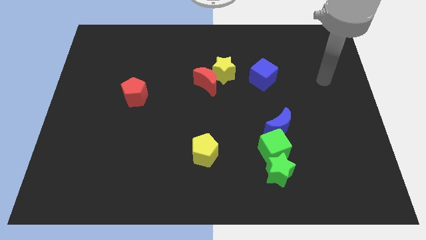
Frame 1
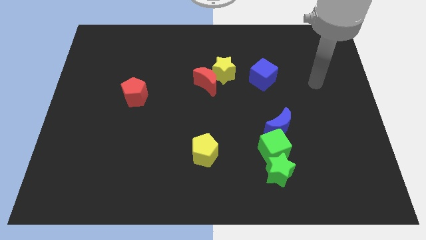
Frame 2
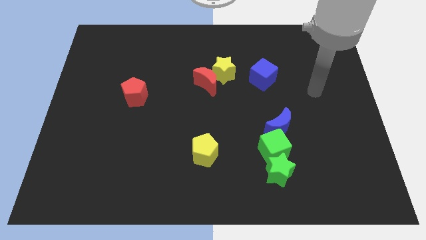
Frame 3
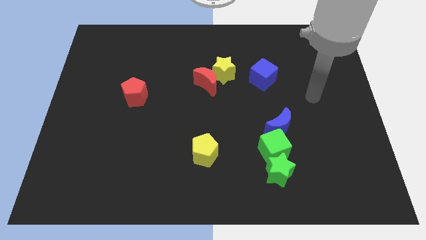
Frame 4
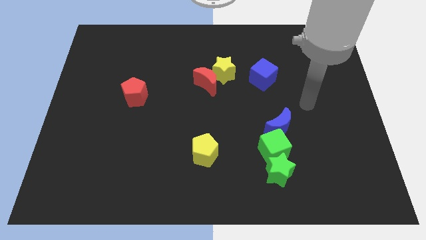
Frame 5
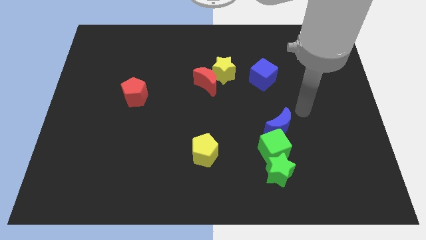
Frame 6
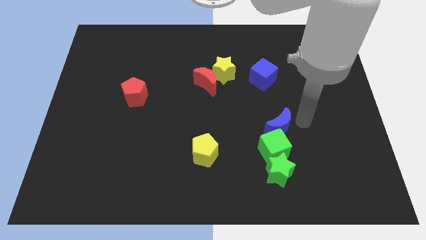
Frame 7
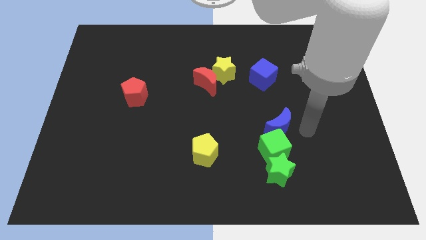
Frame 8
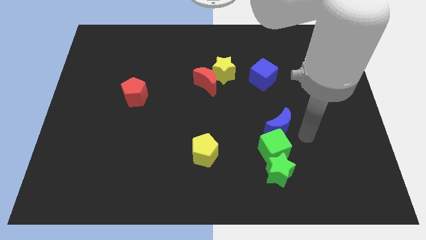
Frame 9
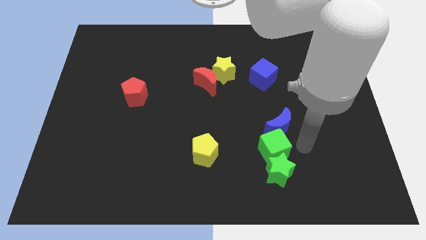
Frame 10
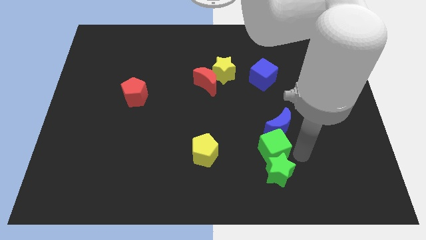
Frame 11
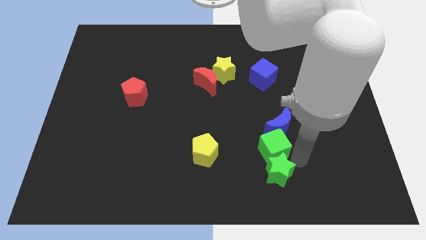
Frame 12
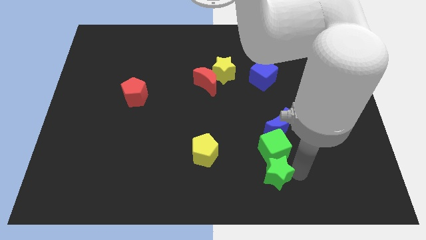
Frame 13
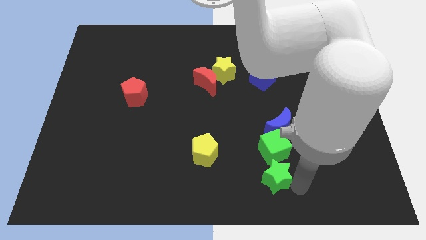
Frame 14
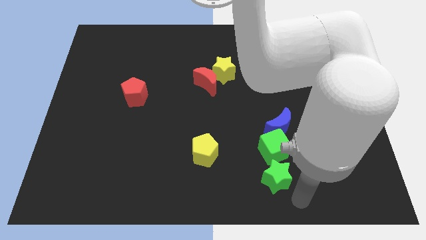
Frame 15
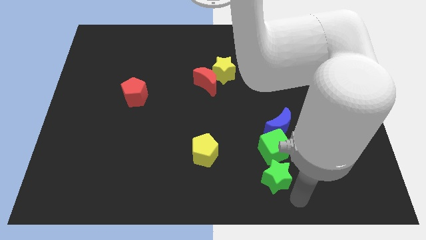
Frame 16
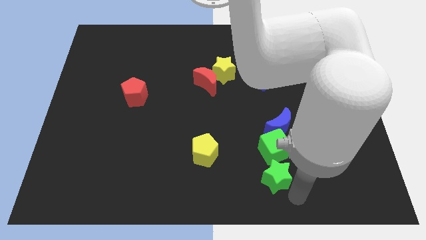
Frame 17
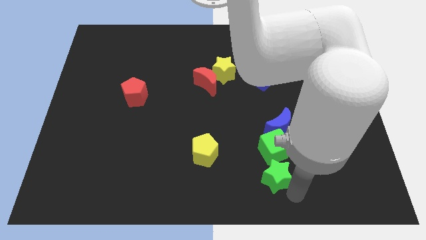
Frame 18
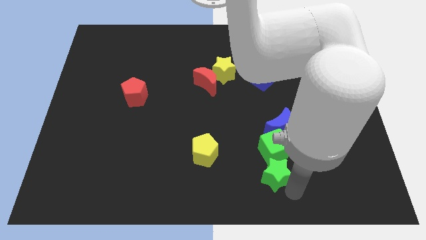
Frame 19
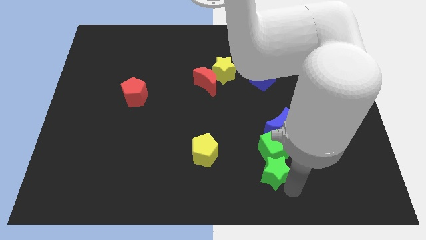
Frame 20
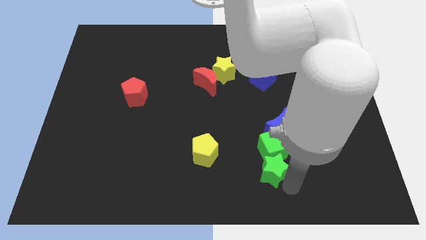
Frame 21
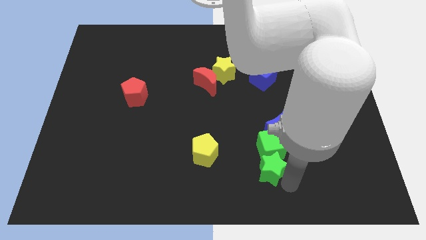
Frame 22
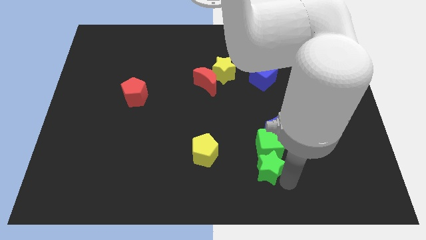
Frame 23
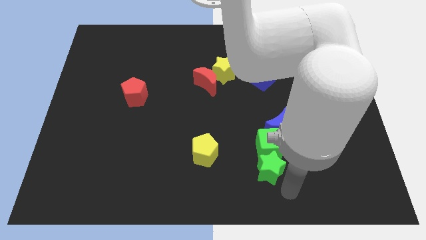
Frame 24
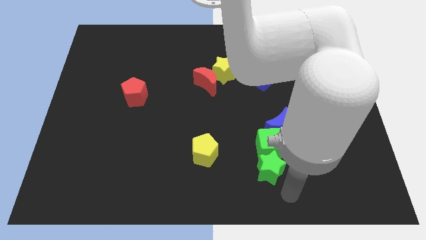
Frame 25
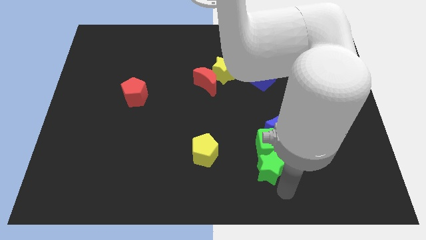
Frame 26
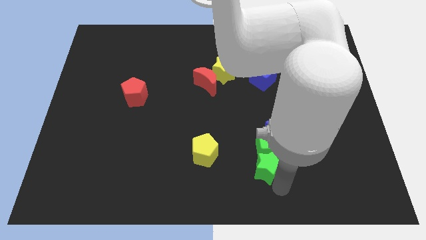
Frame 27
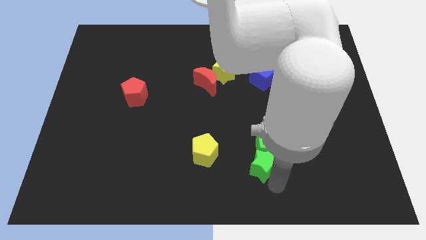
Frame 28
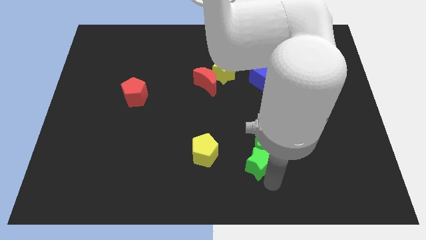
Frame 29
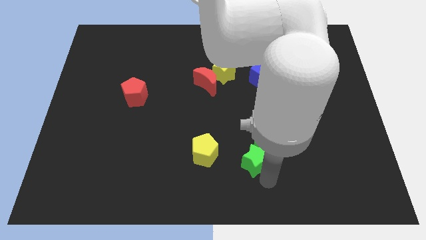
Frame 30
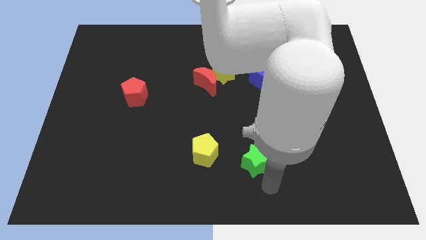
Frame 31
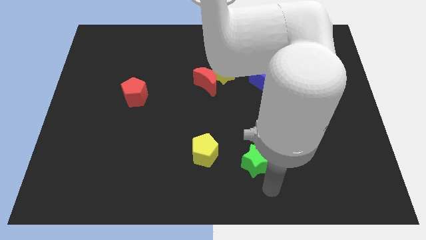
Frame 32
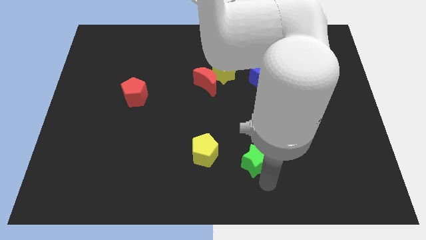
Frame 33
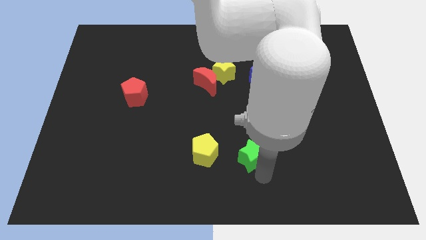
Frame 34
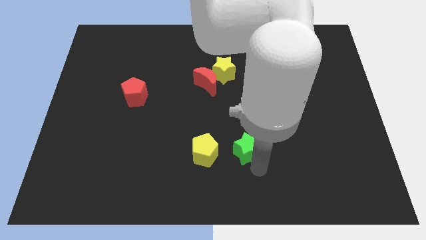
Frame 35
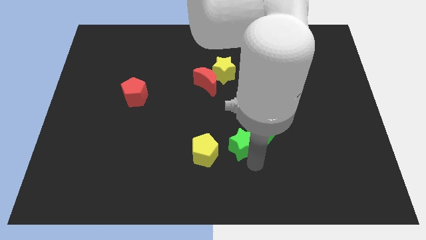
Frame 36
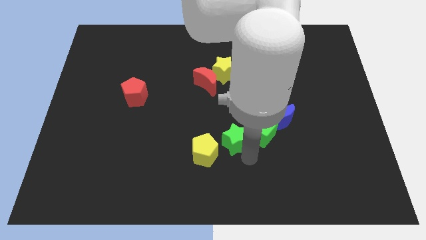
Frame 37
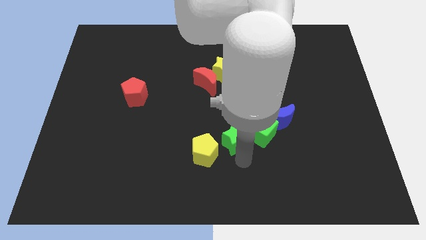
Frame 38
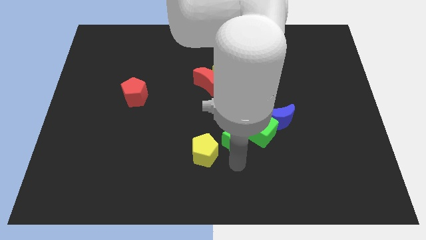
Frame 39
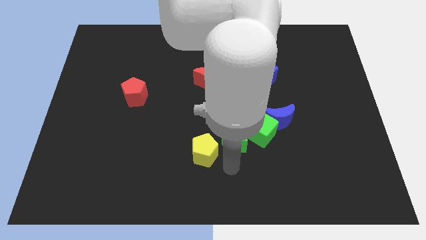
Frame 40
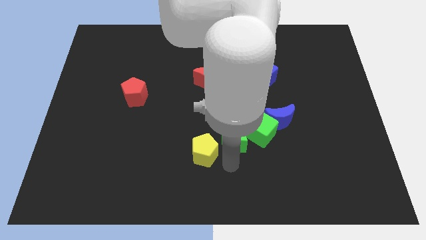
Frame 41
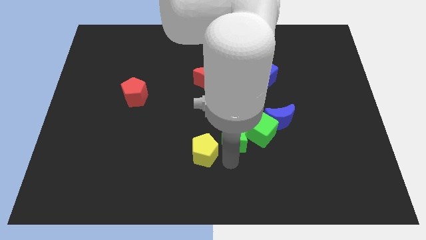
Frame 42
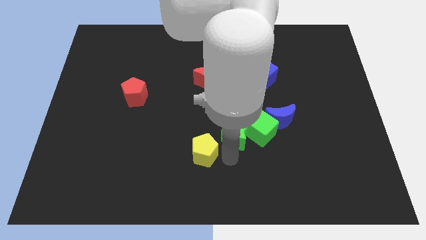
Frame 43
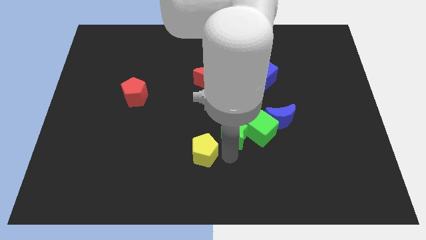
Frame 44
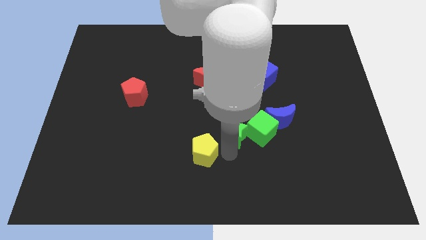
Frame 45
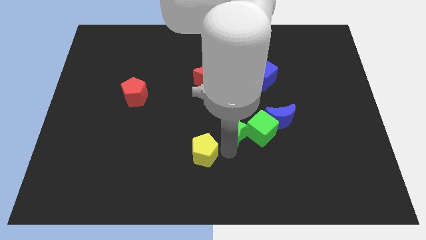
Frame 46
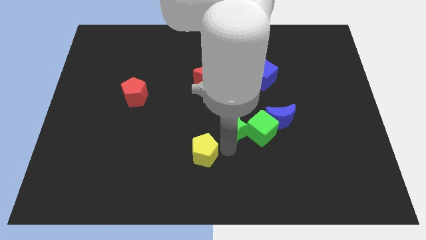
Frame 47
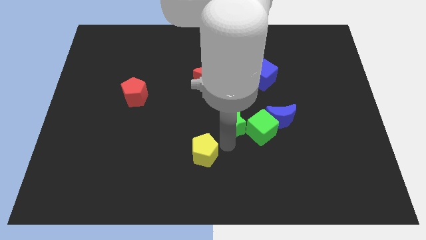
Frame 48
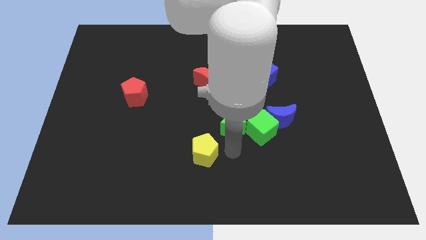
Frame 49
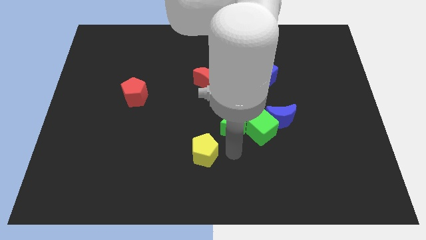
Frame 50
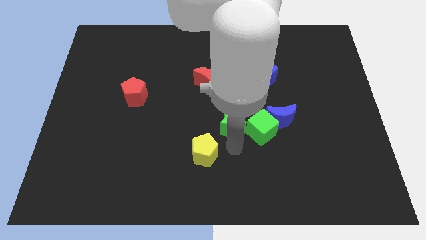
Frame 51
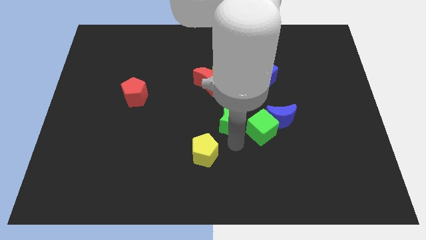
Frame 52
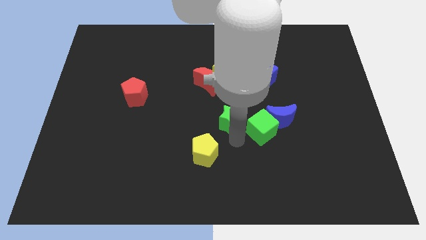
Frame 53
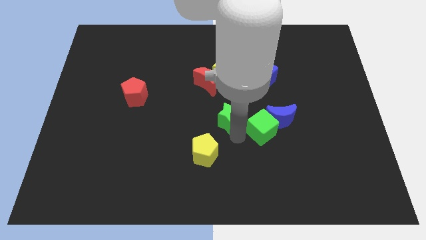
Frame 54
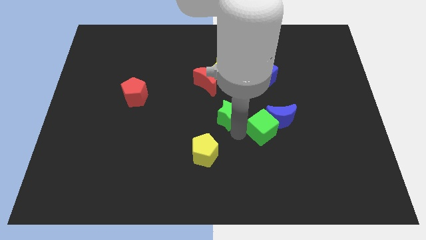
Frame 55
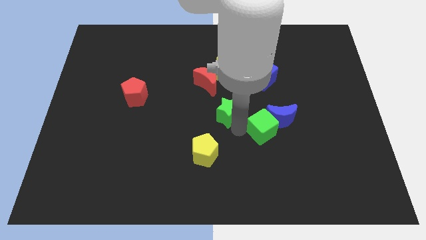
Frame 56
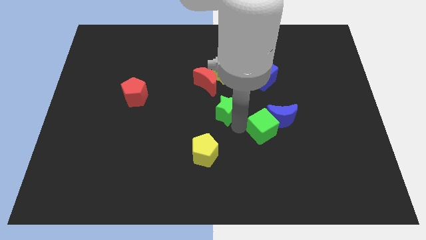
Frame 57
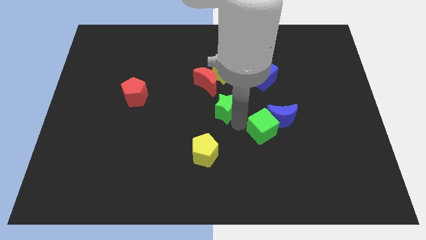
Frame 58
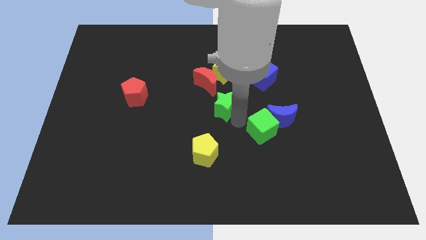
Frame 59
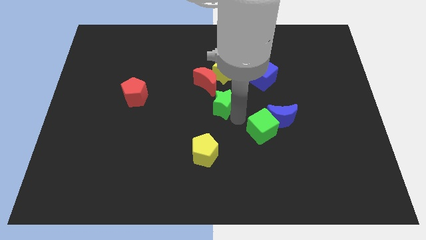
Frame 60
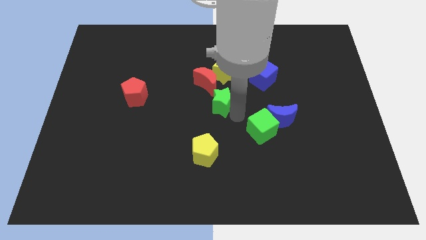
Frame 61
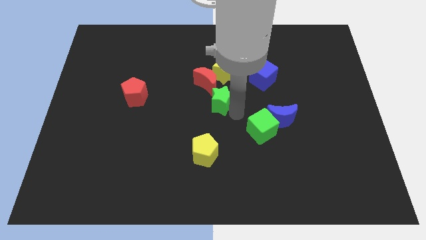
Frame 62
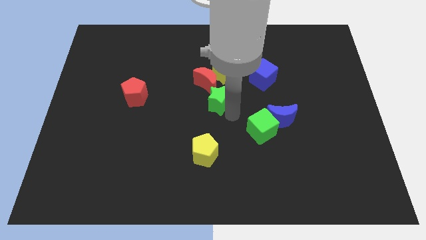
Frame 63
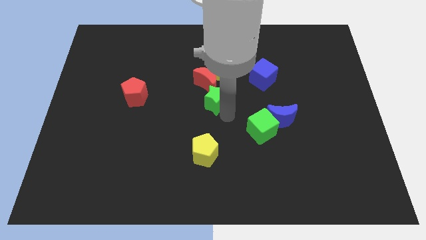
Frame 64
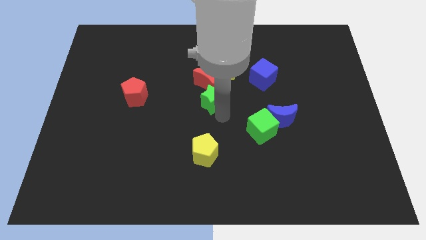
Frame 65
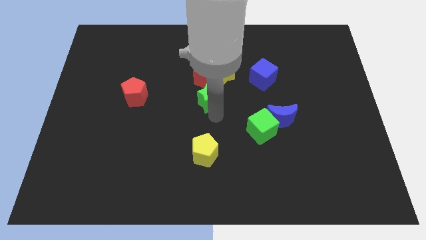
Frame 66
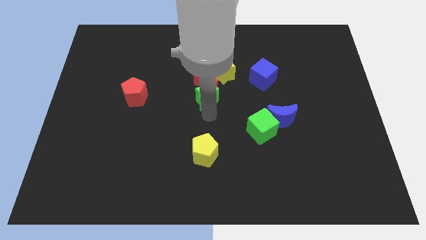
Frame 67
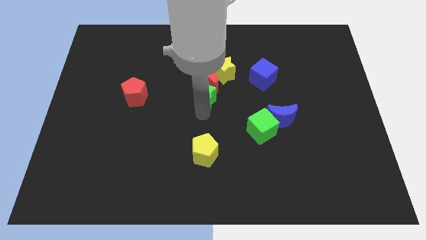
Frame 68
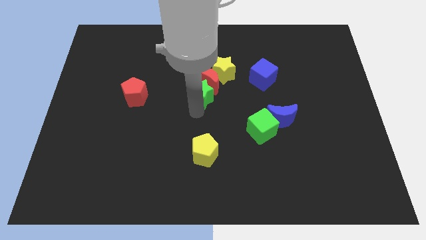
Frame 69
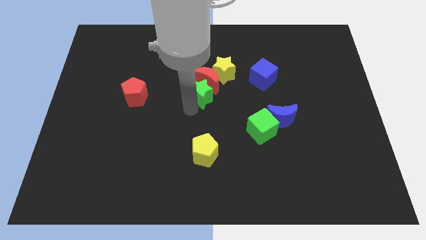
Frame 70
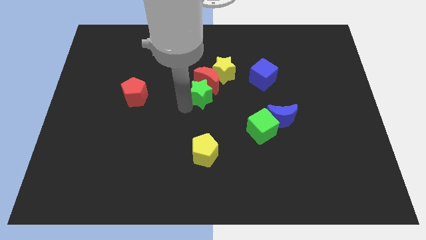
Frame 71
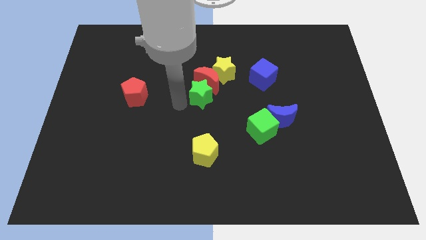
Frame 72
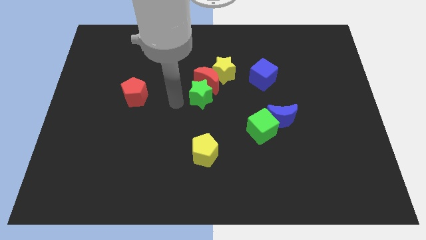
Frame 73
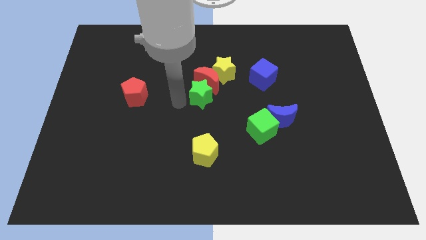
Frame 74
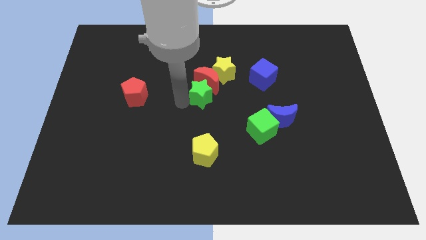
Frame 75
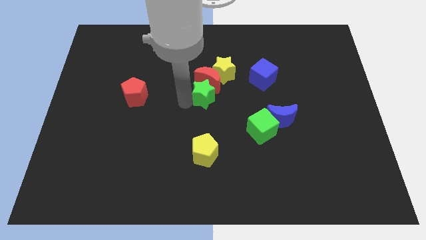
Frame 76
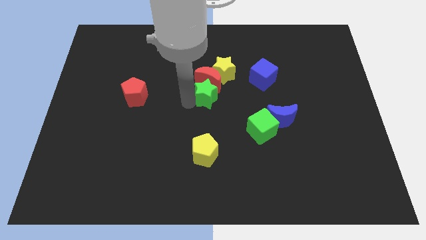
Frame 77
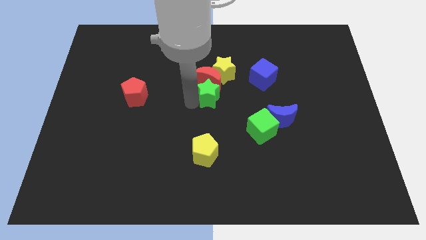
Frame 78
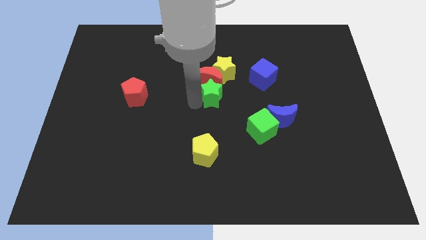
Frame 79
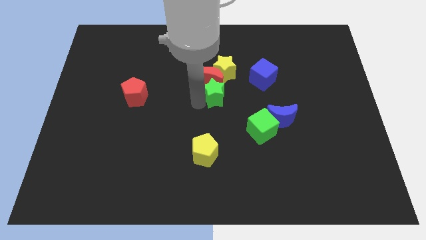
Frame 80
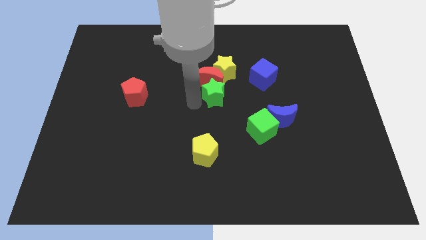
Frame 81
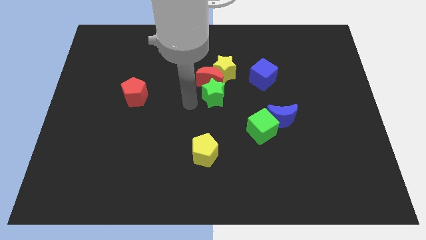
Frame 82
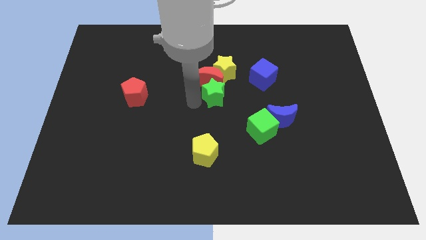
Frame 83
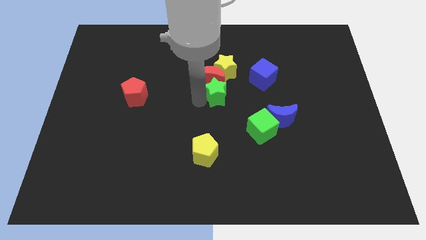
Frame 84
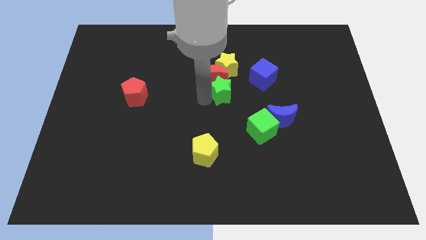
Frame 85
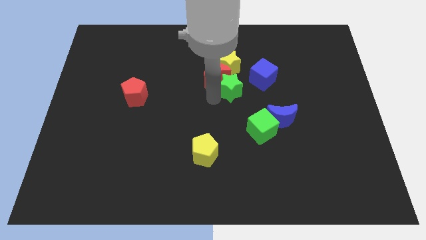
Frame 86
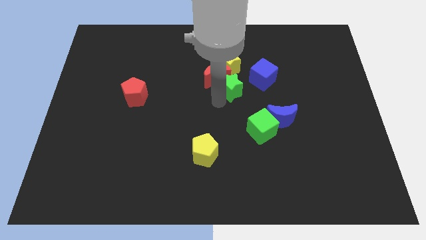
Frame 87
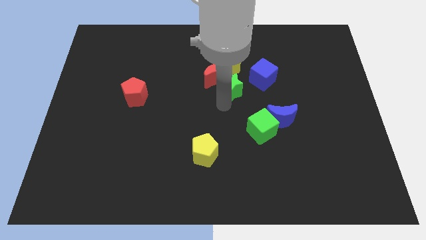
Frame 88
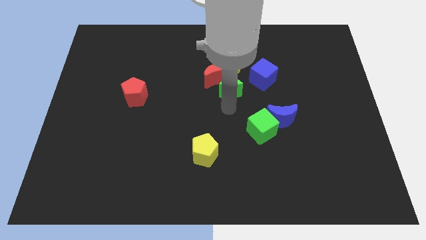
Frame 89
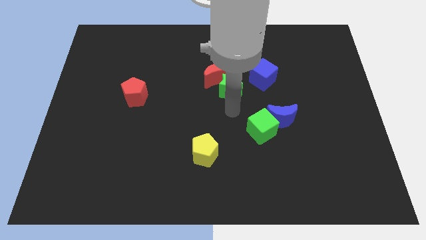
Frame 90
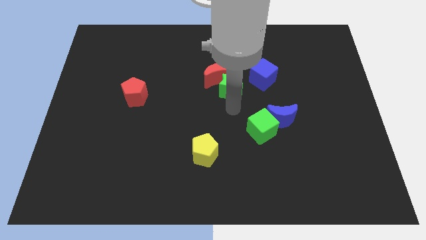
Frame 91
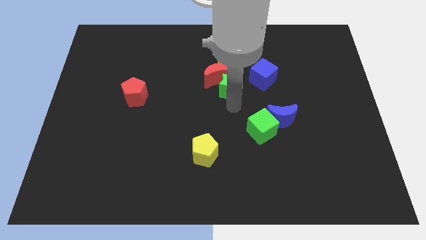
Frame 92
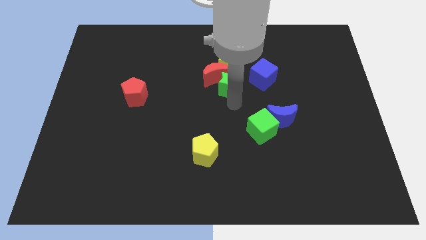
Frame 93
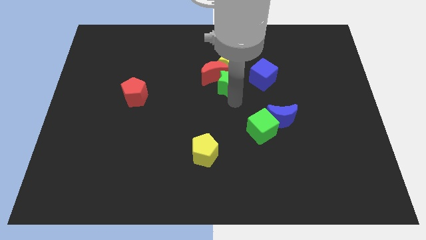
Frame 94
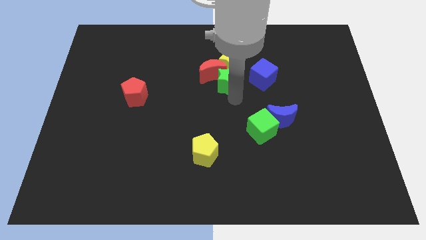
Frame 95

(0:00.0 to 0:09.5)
push the green star next to the yellow star
